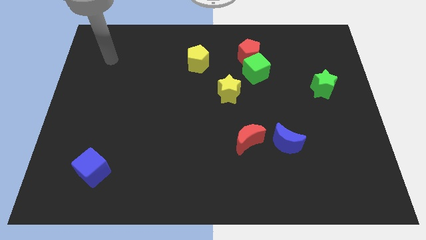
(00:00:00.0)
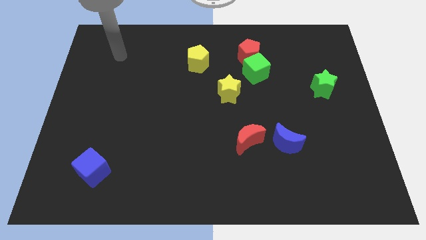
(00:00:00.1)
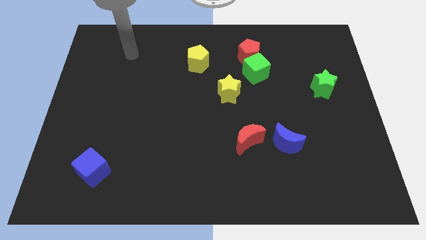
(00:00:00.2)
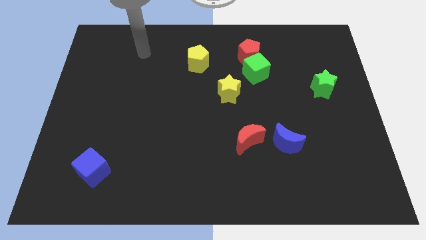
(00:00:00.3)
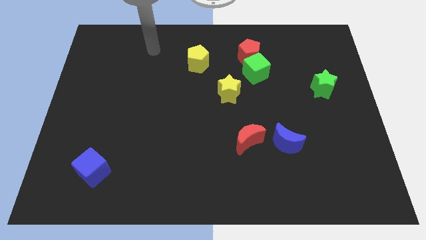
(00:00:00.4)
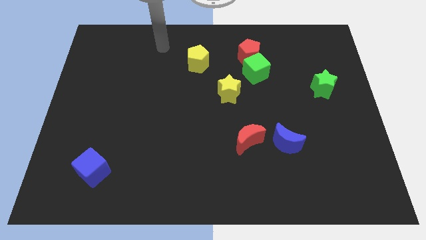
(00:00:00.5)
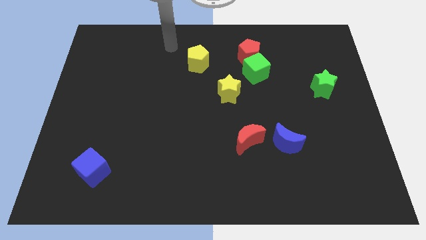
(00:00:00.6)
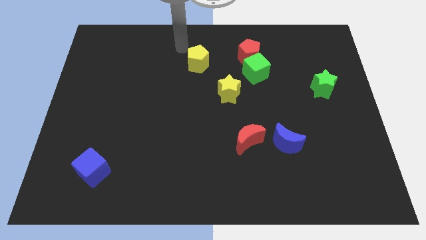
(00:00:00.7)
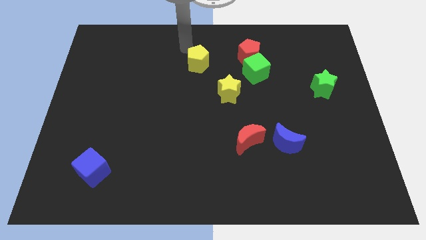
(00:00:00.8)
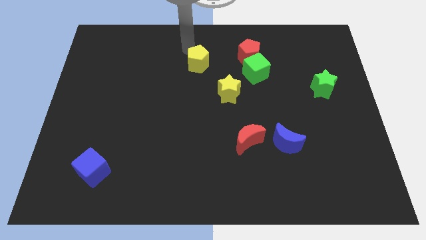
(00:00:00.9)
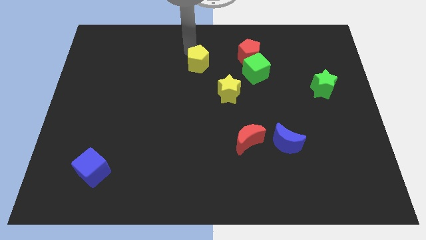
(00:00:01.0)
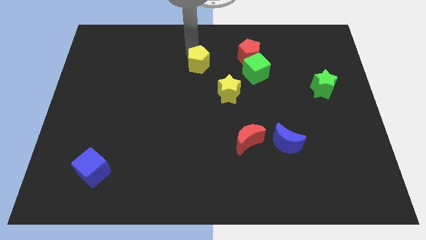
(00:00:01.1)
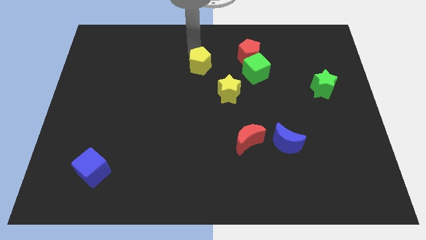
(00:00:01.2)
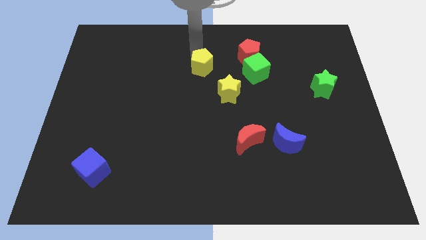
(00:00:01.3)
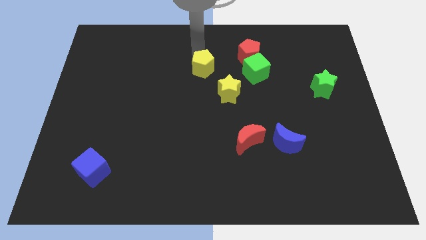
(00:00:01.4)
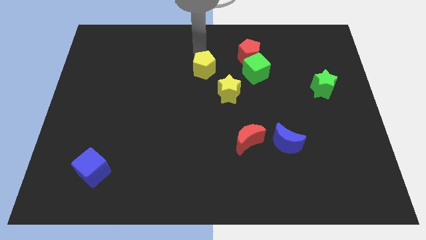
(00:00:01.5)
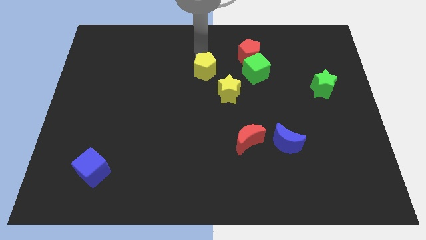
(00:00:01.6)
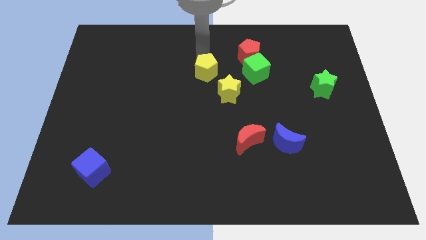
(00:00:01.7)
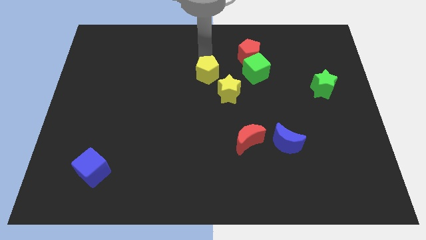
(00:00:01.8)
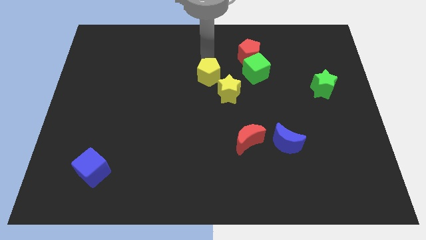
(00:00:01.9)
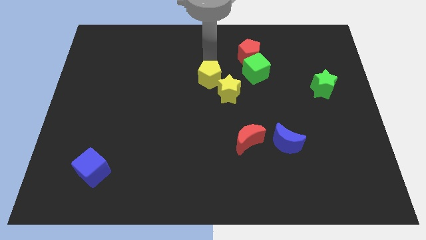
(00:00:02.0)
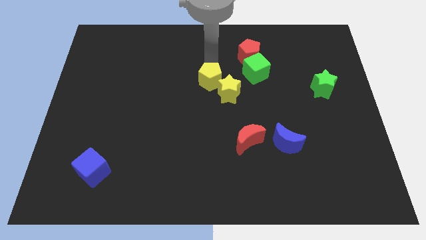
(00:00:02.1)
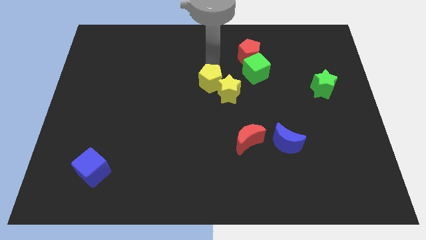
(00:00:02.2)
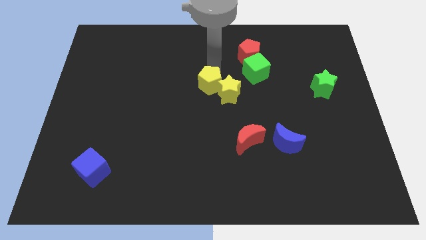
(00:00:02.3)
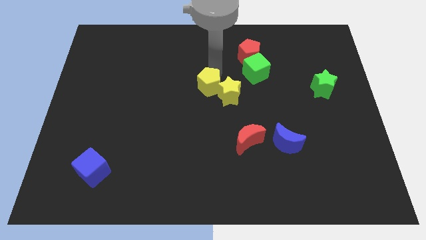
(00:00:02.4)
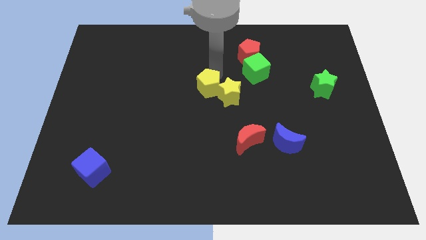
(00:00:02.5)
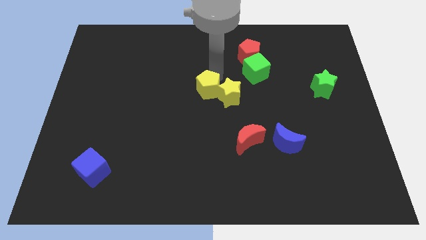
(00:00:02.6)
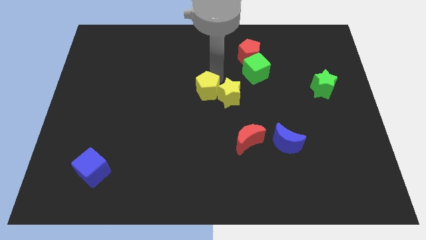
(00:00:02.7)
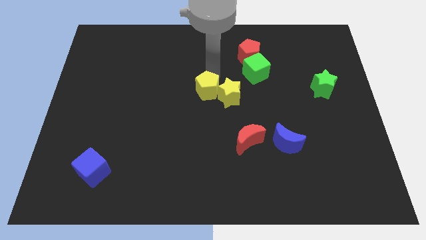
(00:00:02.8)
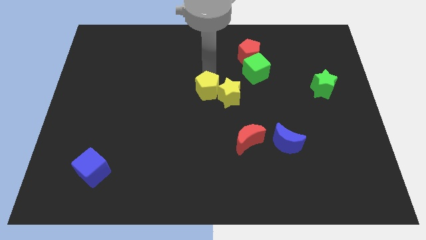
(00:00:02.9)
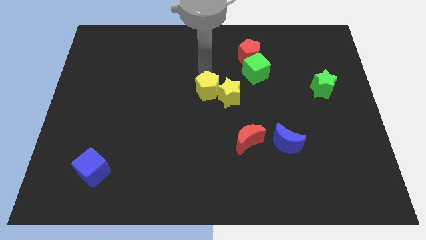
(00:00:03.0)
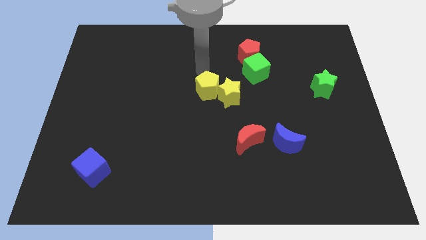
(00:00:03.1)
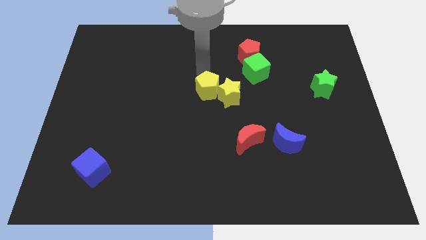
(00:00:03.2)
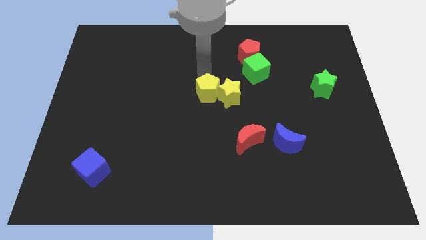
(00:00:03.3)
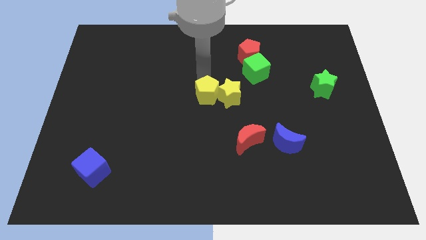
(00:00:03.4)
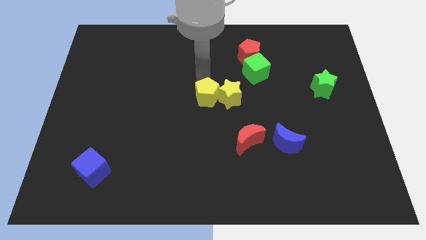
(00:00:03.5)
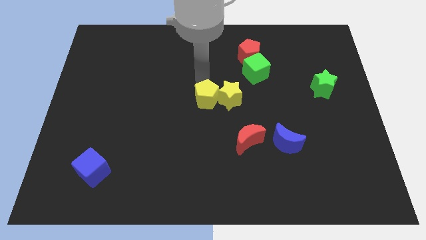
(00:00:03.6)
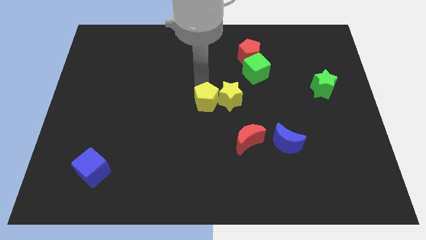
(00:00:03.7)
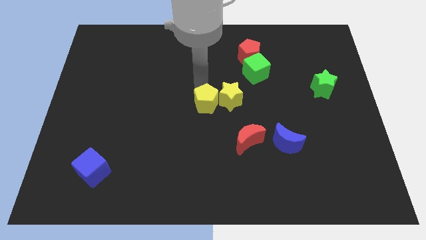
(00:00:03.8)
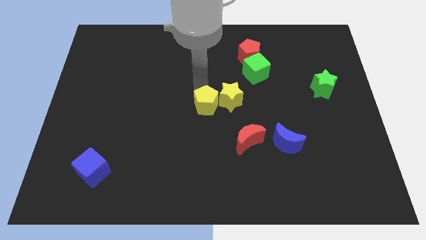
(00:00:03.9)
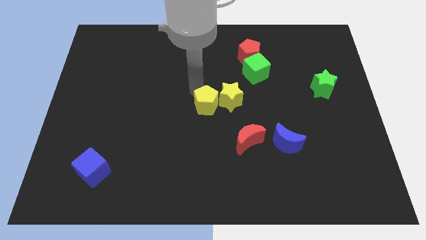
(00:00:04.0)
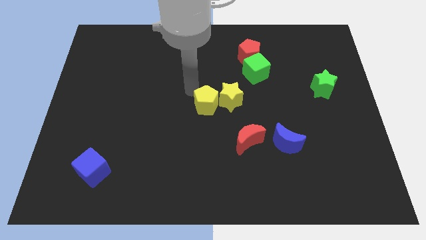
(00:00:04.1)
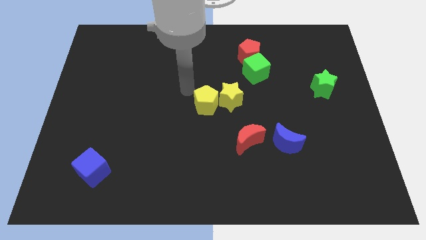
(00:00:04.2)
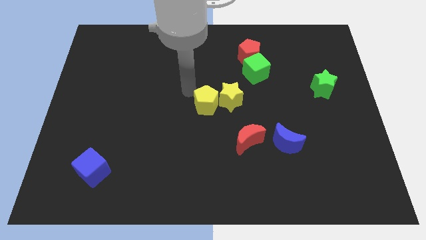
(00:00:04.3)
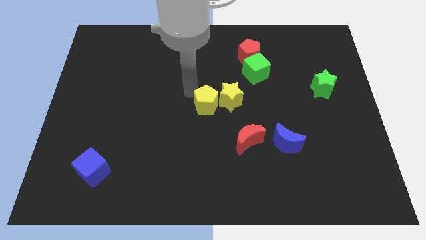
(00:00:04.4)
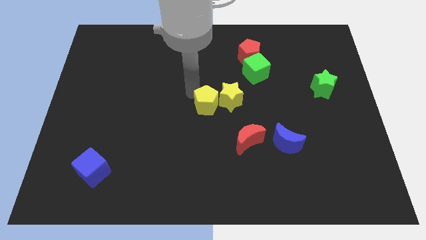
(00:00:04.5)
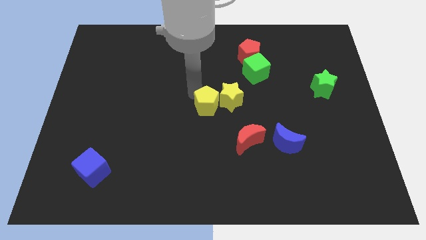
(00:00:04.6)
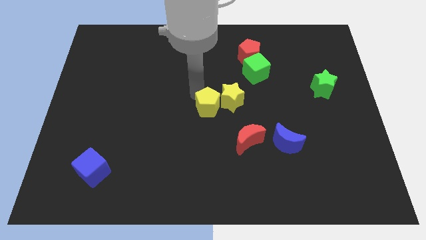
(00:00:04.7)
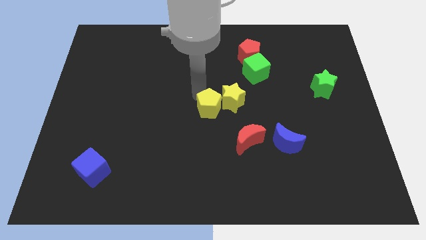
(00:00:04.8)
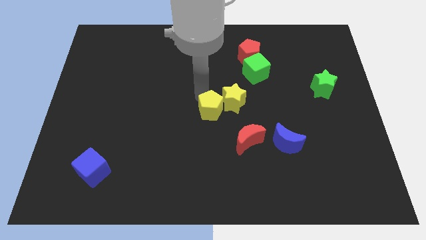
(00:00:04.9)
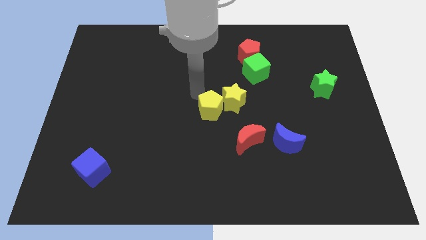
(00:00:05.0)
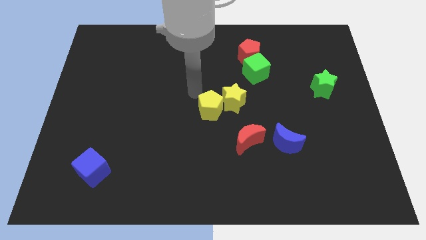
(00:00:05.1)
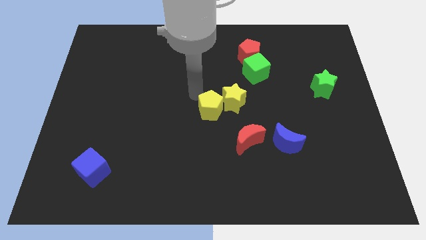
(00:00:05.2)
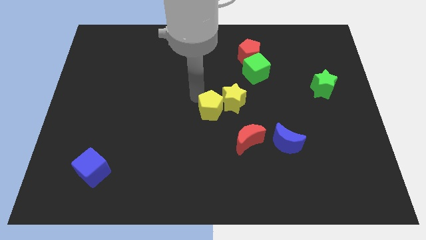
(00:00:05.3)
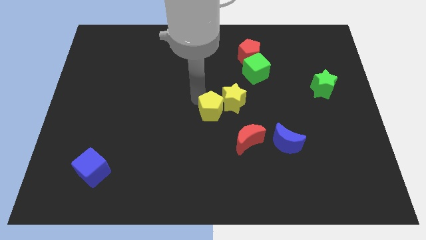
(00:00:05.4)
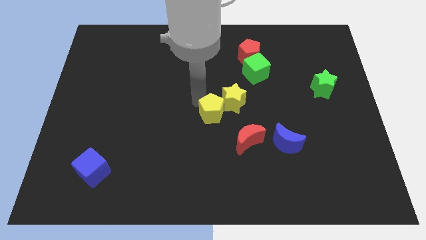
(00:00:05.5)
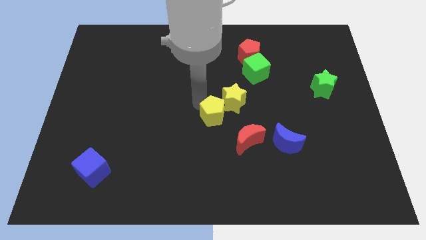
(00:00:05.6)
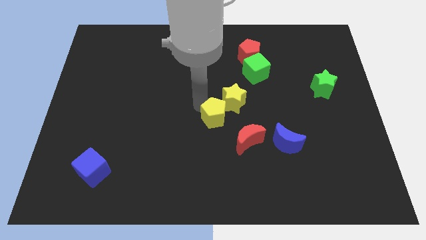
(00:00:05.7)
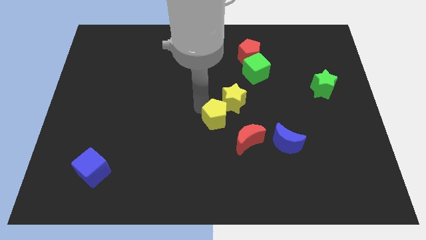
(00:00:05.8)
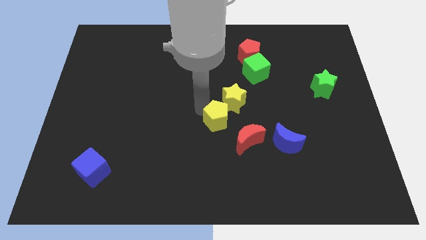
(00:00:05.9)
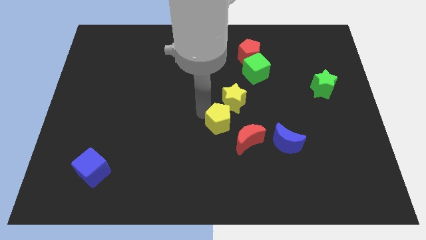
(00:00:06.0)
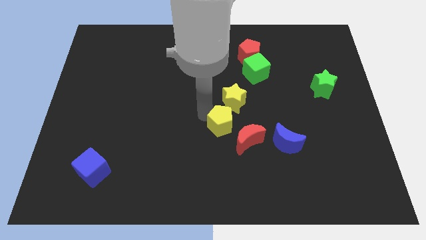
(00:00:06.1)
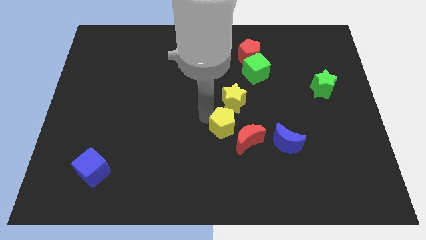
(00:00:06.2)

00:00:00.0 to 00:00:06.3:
put the yellow pentagon just left of the blue moon

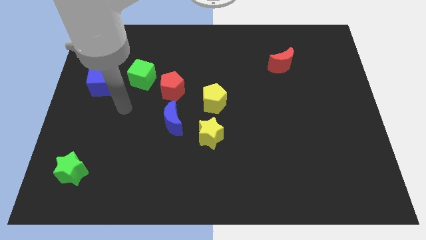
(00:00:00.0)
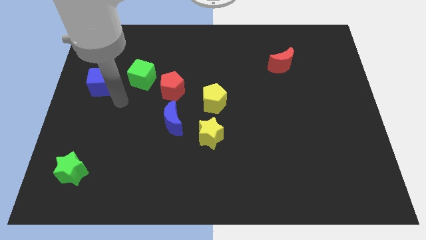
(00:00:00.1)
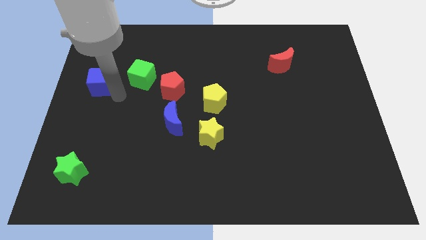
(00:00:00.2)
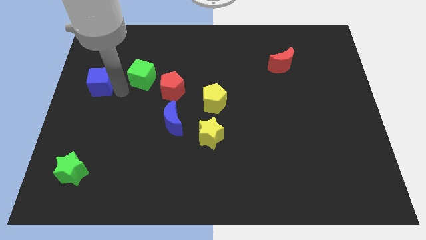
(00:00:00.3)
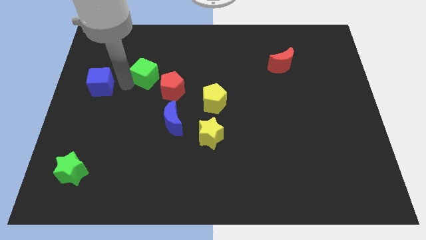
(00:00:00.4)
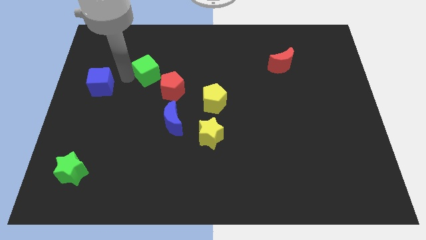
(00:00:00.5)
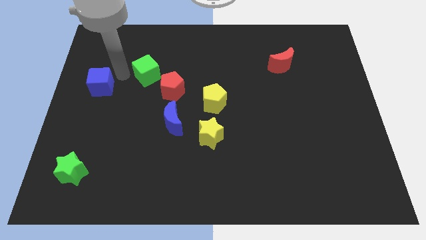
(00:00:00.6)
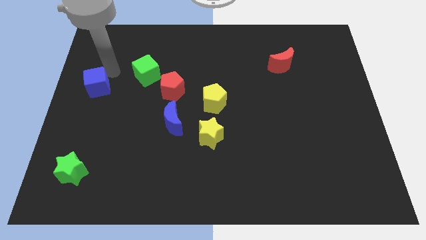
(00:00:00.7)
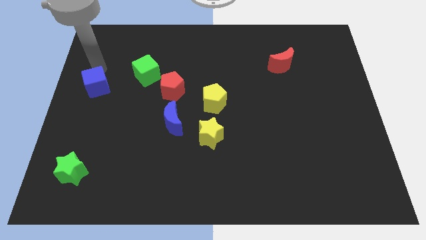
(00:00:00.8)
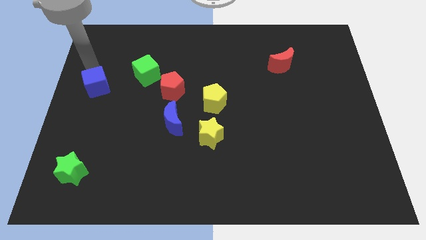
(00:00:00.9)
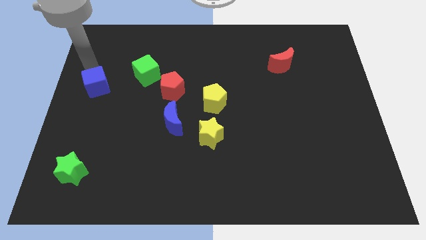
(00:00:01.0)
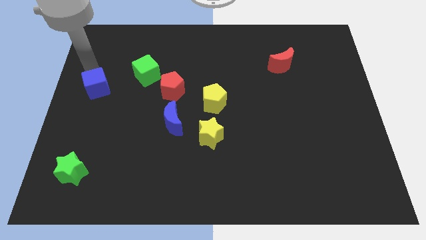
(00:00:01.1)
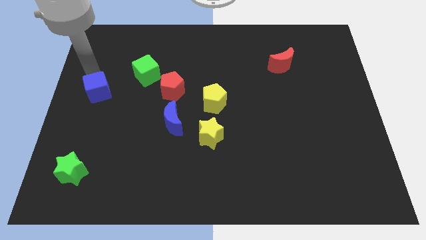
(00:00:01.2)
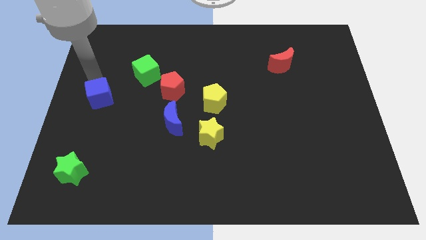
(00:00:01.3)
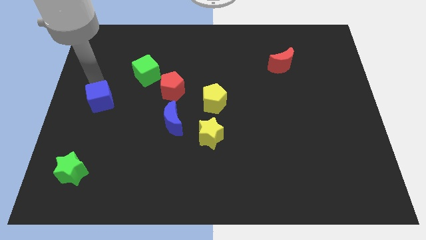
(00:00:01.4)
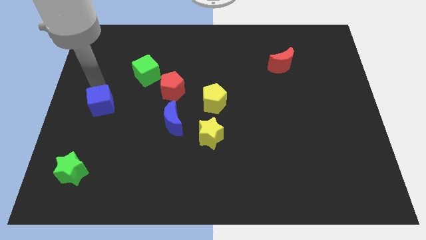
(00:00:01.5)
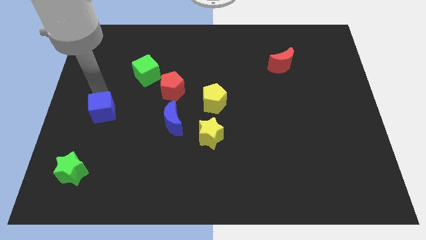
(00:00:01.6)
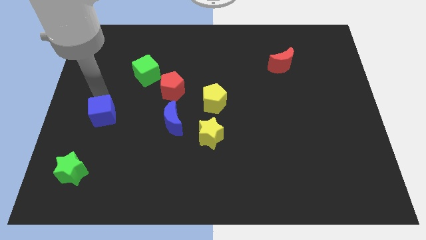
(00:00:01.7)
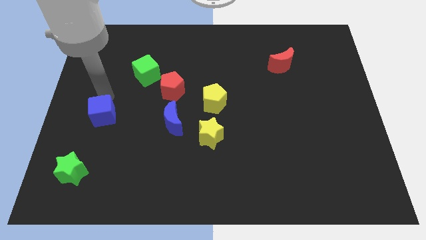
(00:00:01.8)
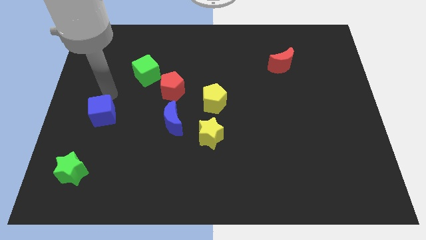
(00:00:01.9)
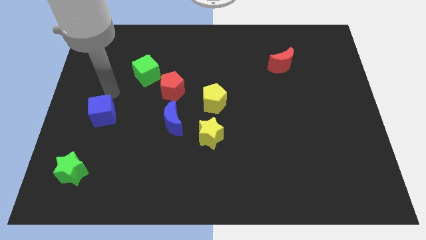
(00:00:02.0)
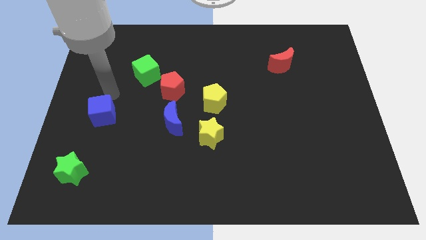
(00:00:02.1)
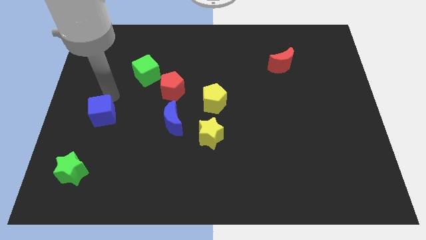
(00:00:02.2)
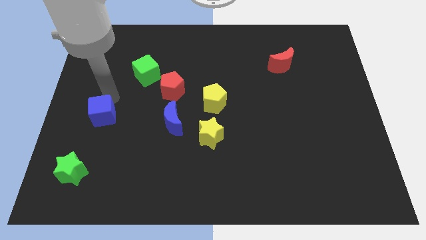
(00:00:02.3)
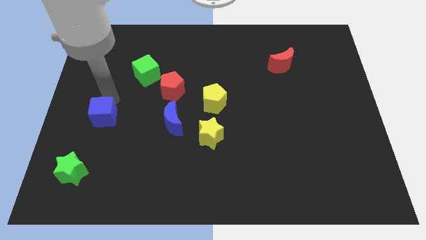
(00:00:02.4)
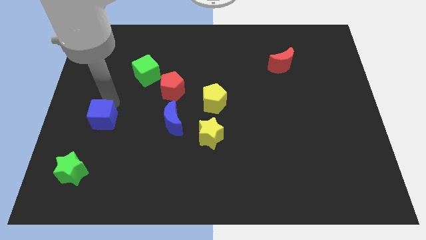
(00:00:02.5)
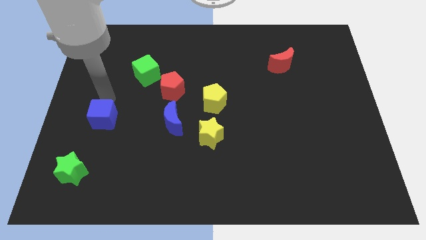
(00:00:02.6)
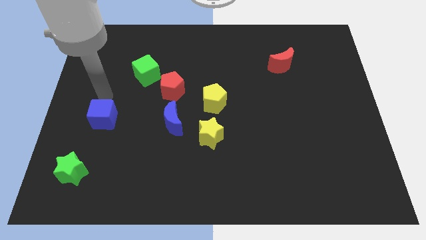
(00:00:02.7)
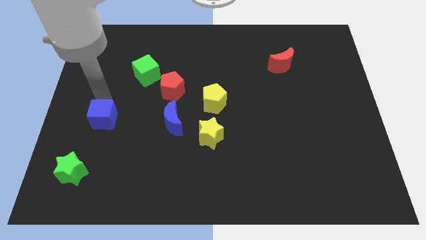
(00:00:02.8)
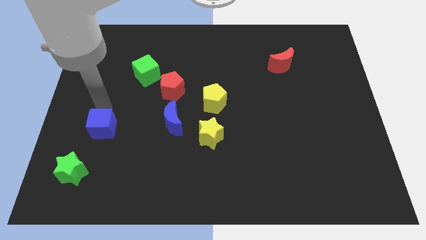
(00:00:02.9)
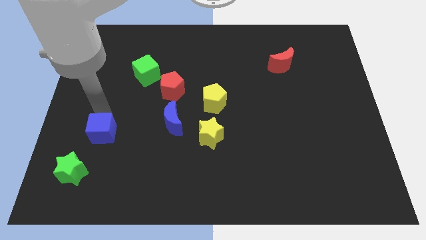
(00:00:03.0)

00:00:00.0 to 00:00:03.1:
move the blue cube diagonally up and to the right of the green star
